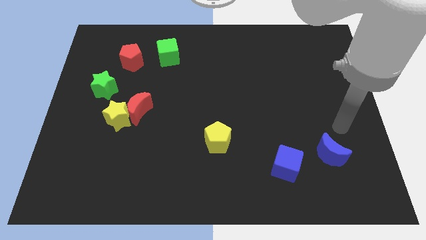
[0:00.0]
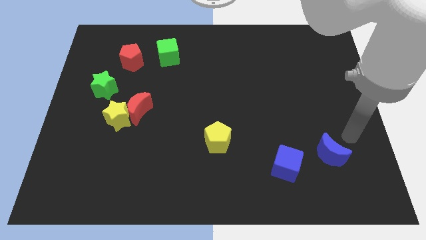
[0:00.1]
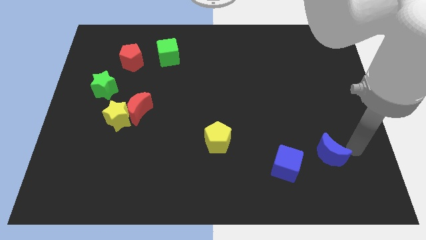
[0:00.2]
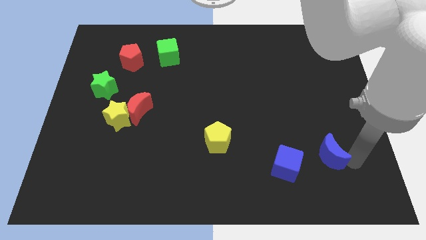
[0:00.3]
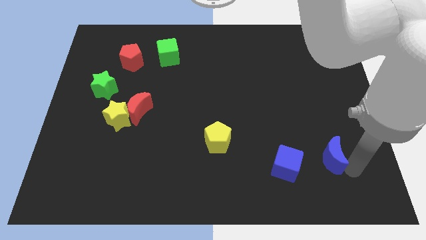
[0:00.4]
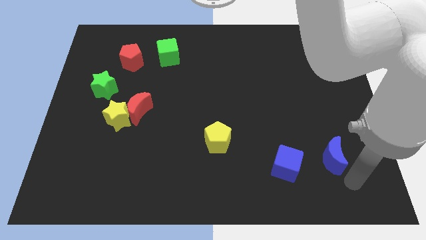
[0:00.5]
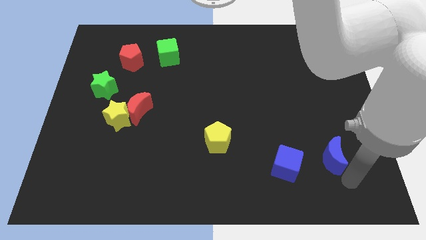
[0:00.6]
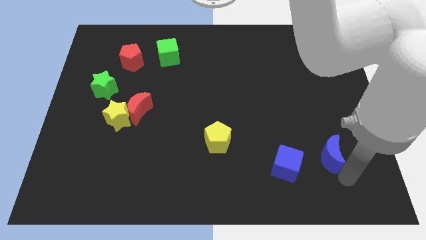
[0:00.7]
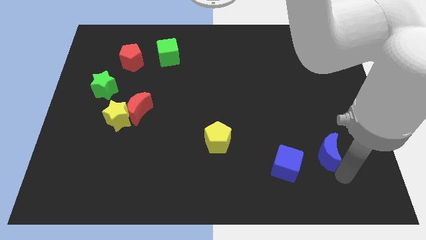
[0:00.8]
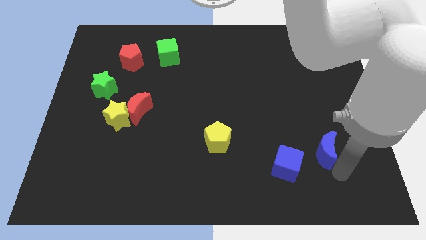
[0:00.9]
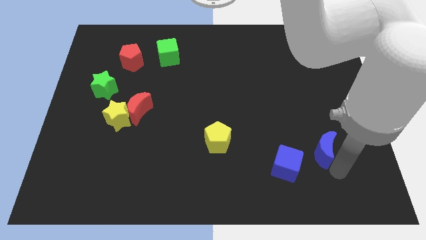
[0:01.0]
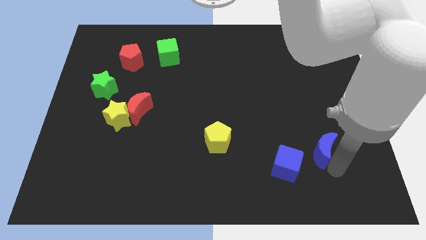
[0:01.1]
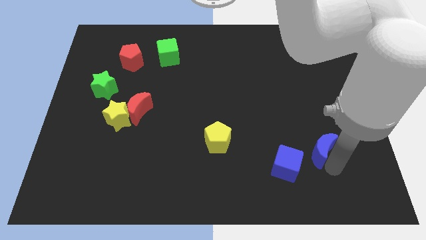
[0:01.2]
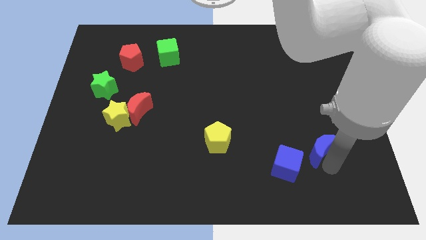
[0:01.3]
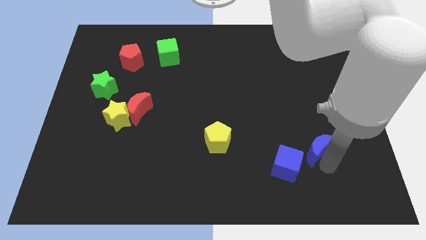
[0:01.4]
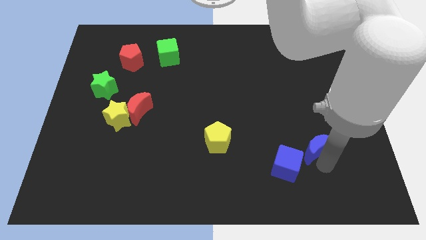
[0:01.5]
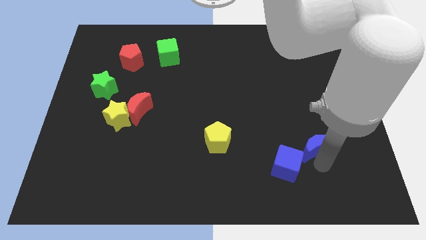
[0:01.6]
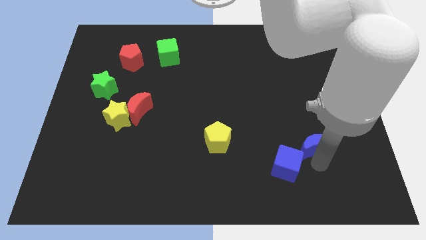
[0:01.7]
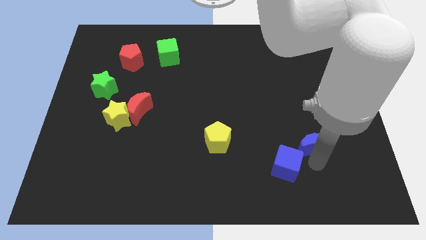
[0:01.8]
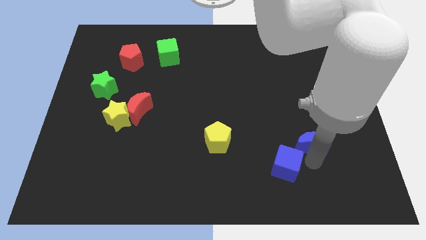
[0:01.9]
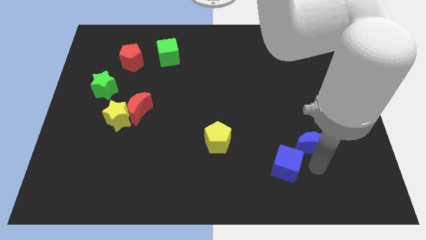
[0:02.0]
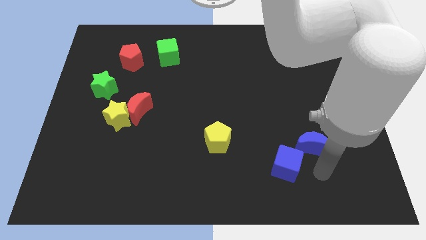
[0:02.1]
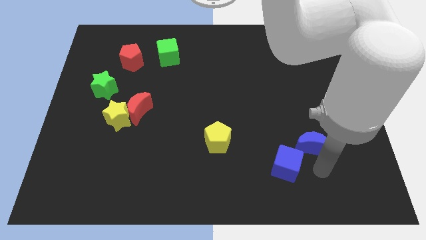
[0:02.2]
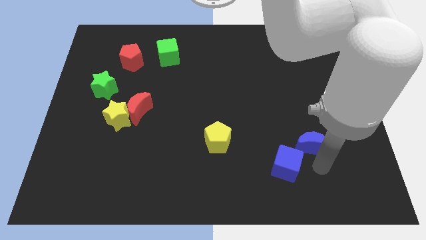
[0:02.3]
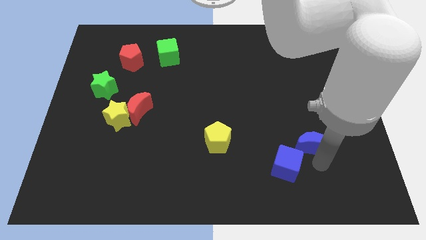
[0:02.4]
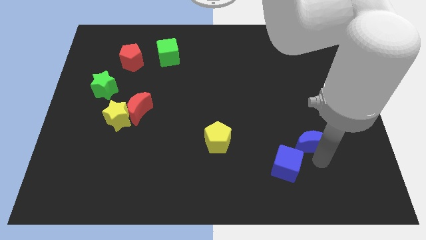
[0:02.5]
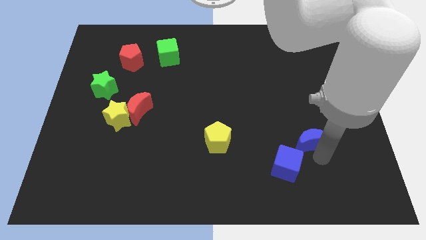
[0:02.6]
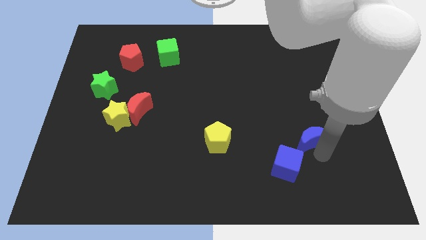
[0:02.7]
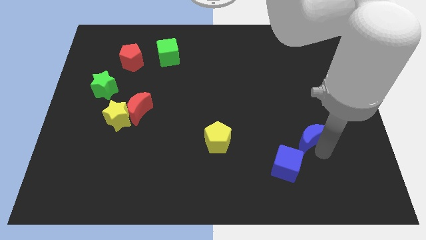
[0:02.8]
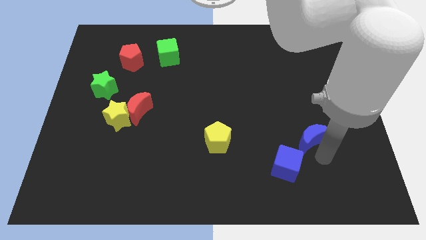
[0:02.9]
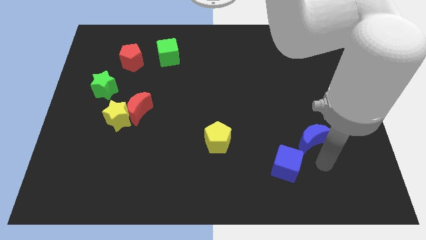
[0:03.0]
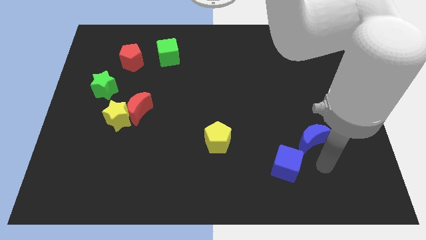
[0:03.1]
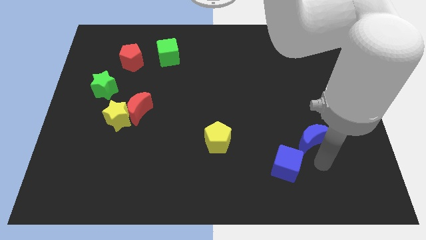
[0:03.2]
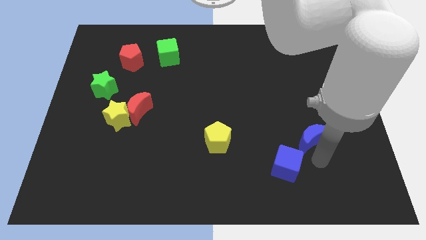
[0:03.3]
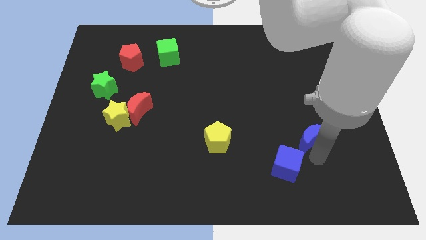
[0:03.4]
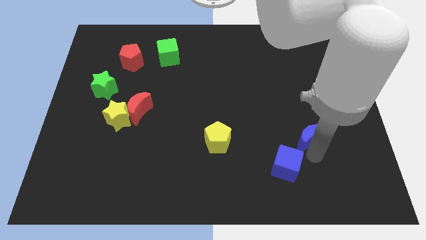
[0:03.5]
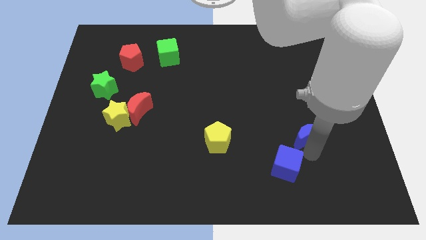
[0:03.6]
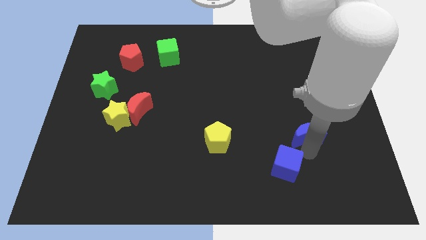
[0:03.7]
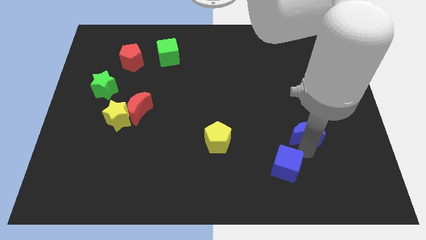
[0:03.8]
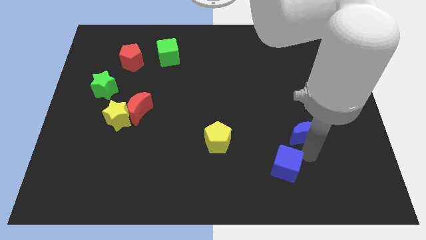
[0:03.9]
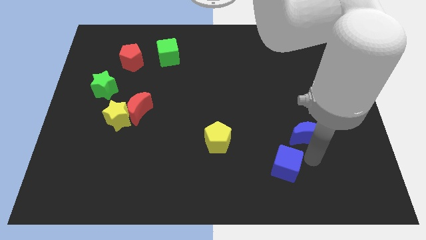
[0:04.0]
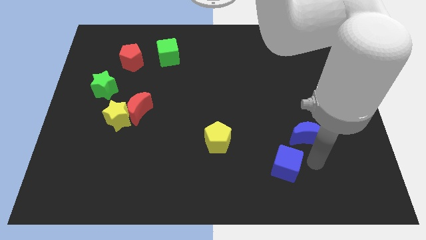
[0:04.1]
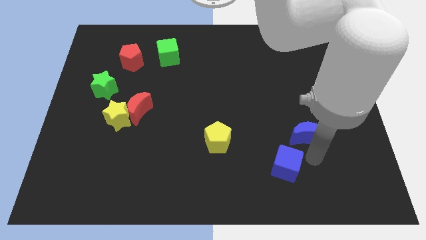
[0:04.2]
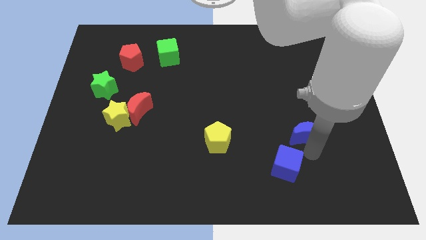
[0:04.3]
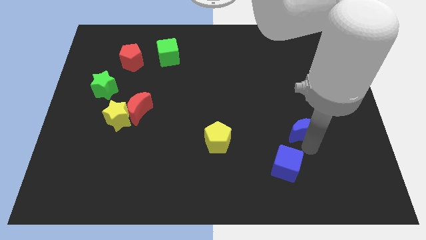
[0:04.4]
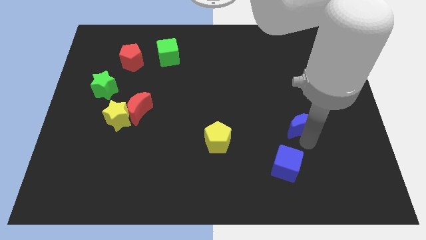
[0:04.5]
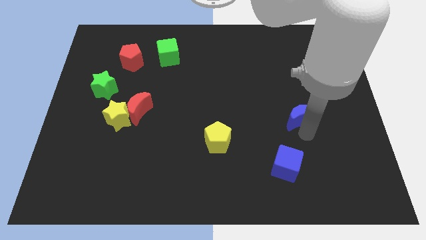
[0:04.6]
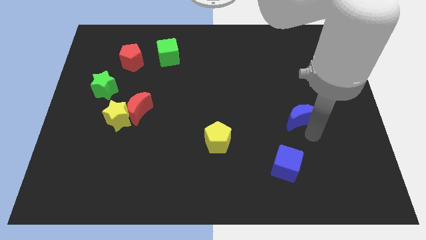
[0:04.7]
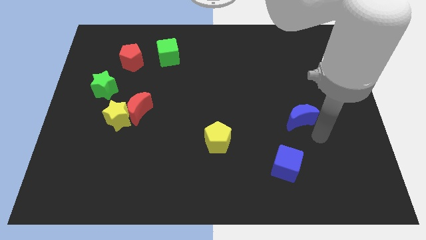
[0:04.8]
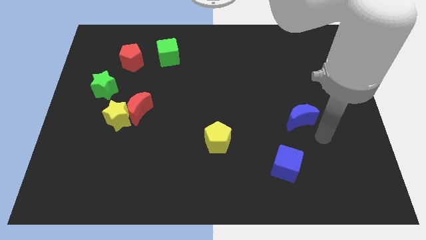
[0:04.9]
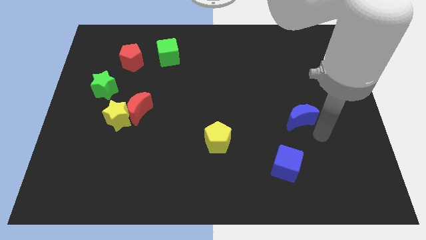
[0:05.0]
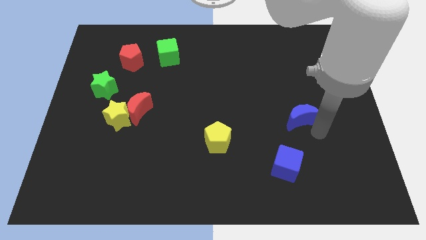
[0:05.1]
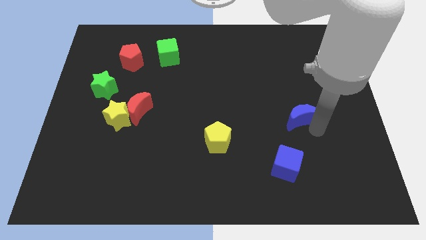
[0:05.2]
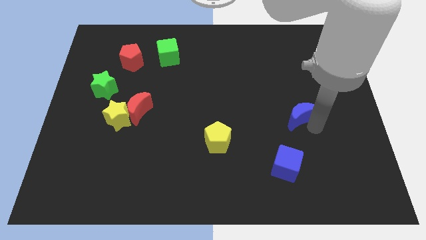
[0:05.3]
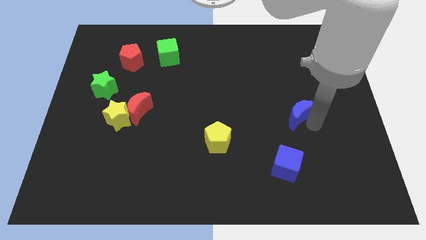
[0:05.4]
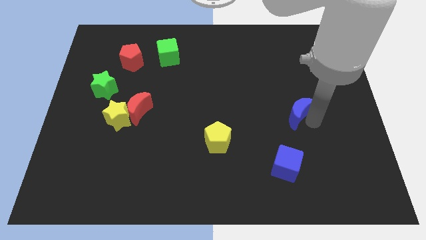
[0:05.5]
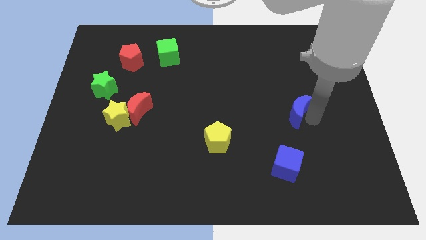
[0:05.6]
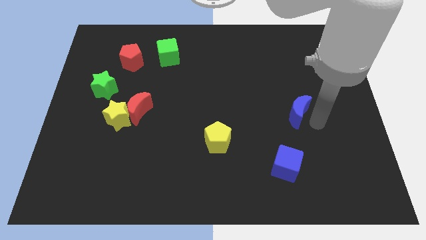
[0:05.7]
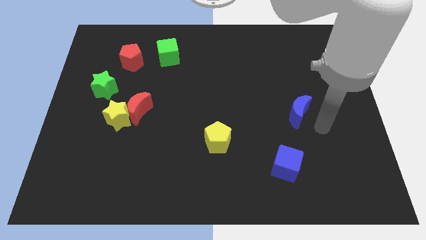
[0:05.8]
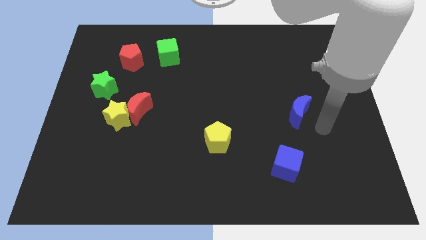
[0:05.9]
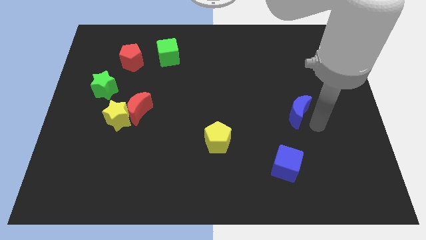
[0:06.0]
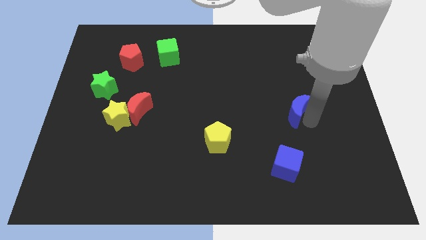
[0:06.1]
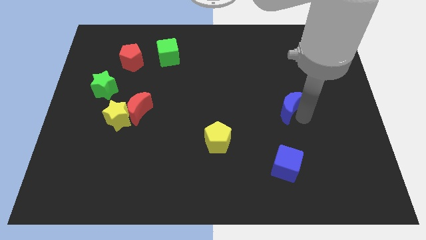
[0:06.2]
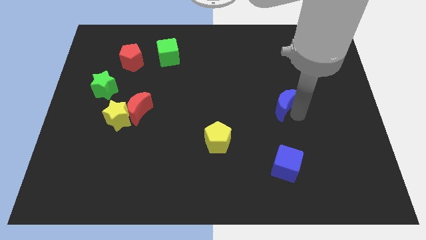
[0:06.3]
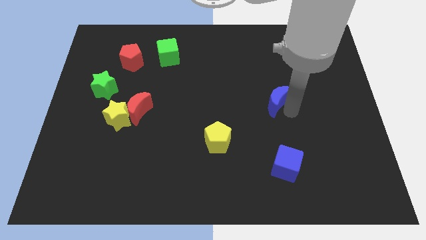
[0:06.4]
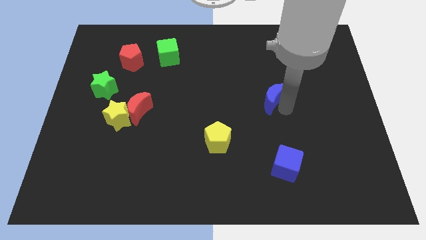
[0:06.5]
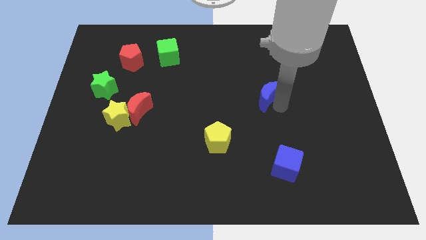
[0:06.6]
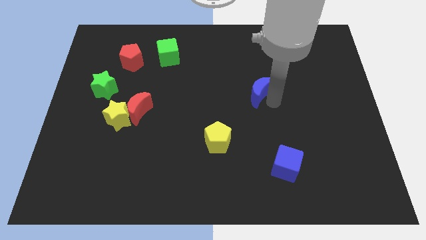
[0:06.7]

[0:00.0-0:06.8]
slide the blue moon up and left diagonally

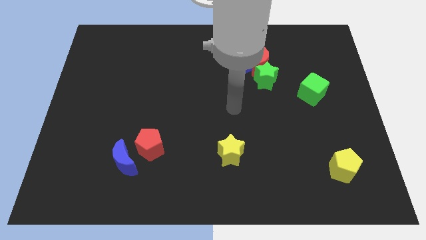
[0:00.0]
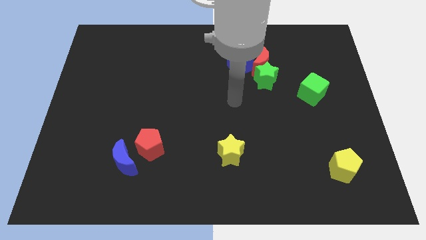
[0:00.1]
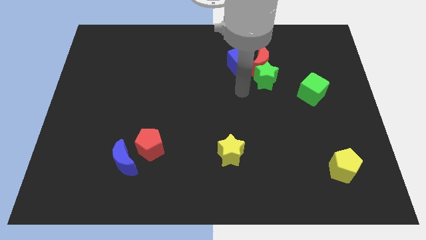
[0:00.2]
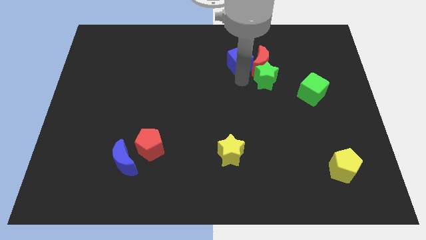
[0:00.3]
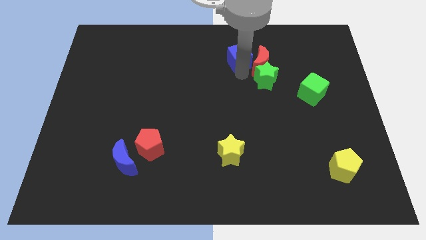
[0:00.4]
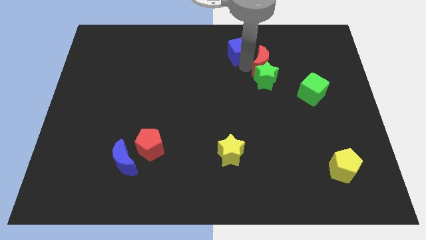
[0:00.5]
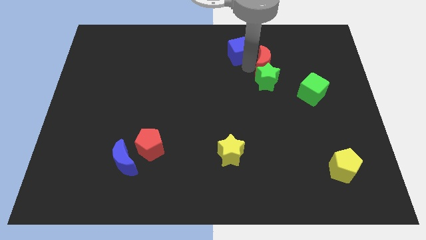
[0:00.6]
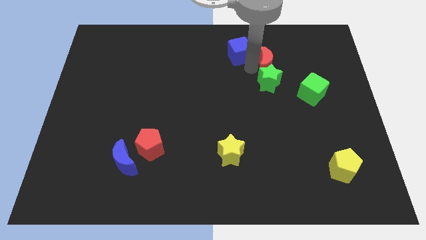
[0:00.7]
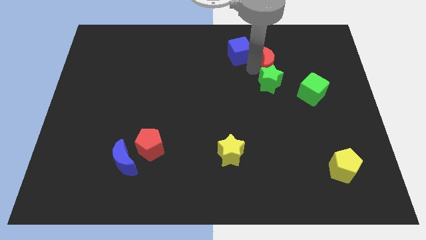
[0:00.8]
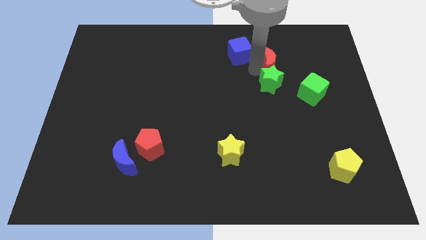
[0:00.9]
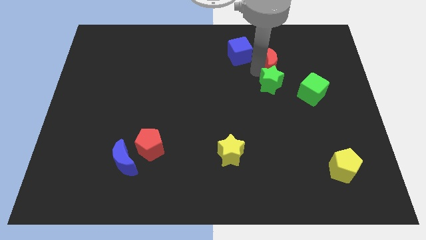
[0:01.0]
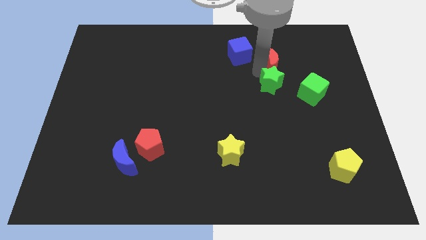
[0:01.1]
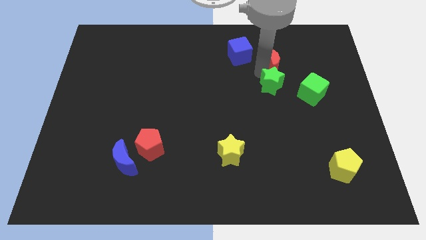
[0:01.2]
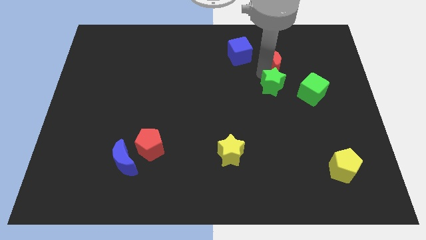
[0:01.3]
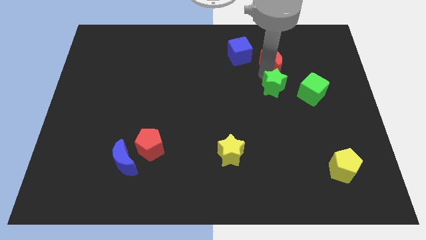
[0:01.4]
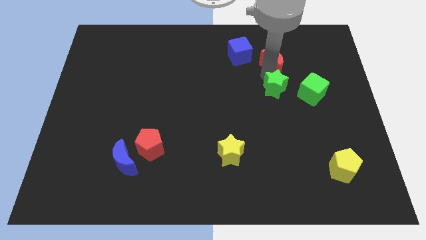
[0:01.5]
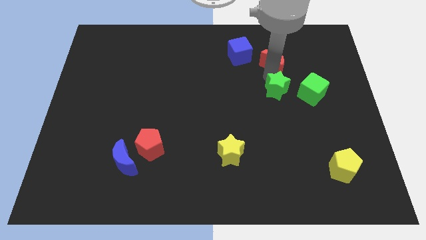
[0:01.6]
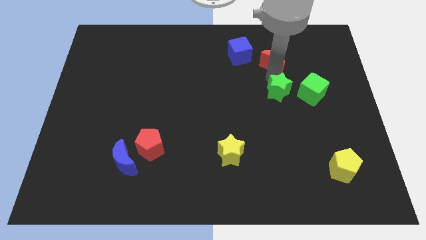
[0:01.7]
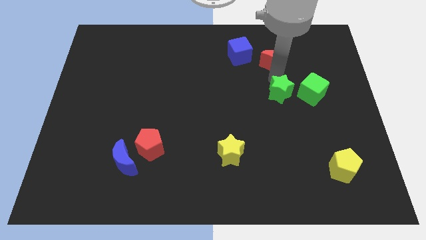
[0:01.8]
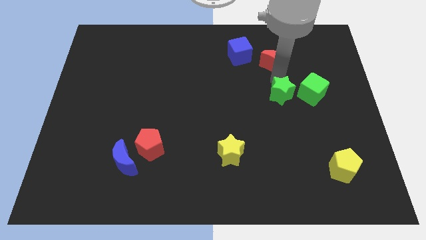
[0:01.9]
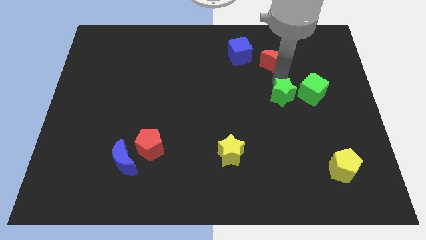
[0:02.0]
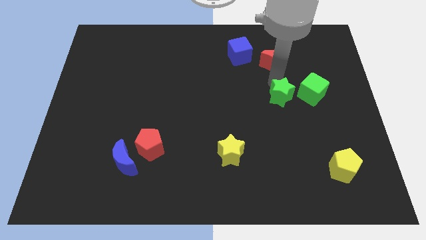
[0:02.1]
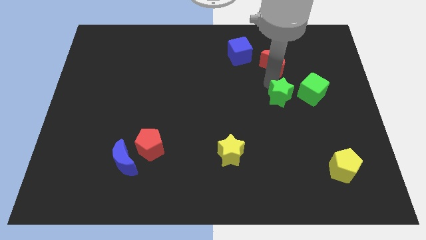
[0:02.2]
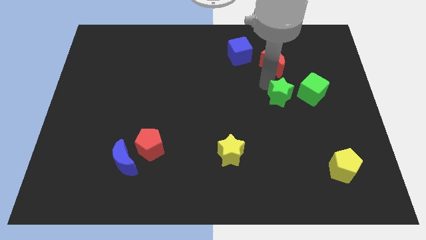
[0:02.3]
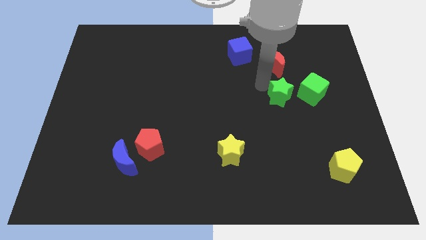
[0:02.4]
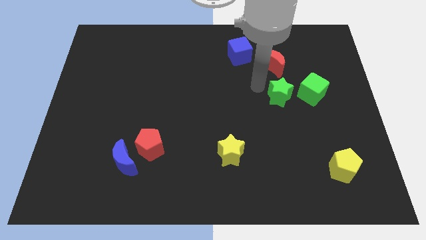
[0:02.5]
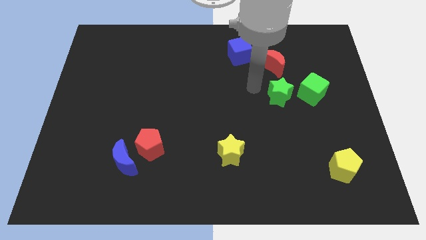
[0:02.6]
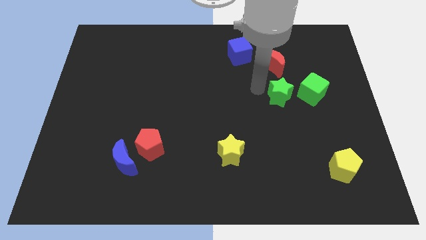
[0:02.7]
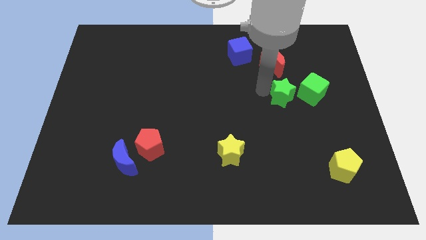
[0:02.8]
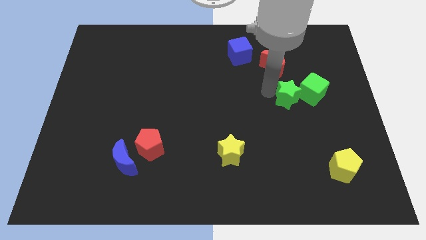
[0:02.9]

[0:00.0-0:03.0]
push the green star diagonally down and right a bit
